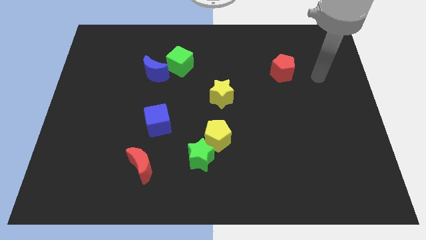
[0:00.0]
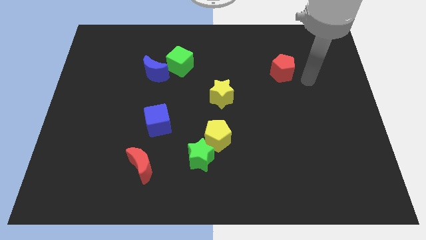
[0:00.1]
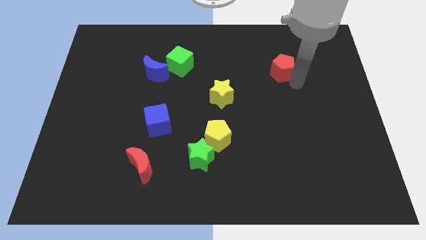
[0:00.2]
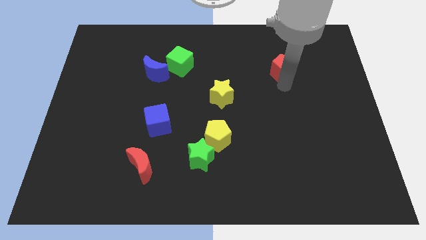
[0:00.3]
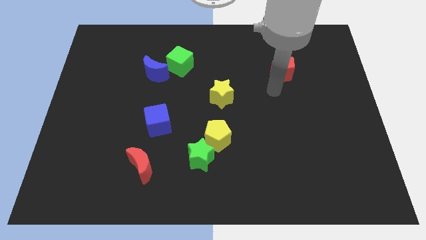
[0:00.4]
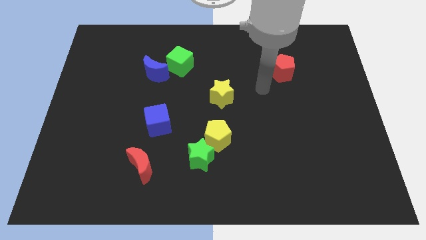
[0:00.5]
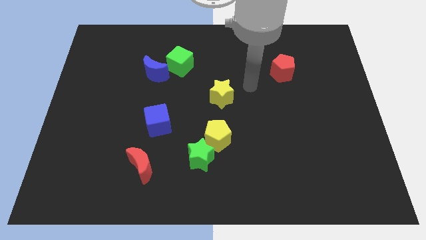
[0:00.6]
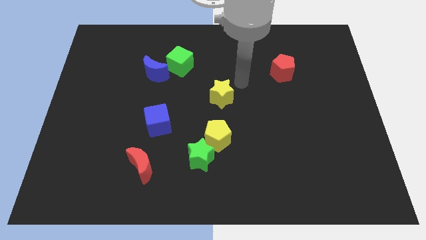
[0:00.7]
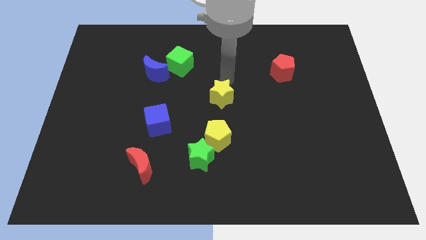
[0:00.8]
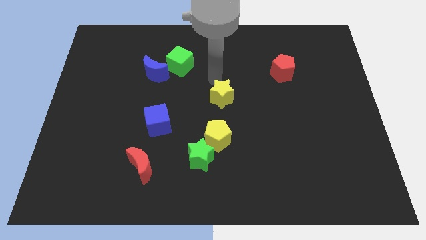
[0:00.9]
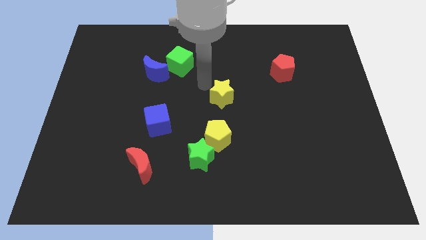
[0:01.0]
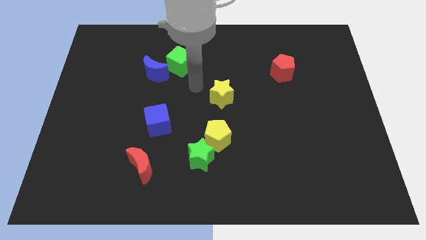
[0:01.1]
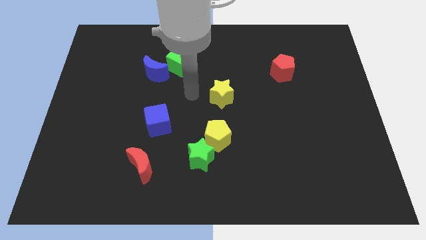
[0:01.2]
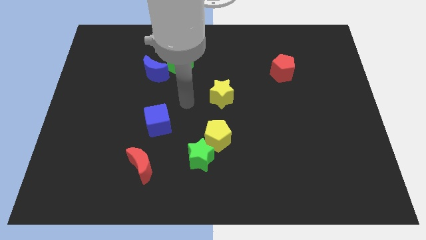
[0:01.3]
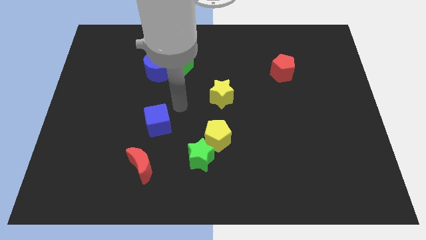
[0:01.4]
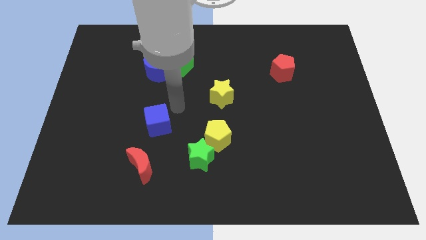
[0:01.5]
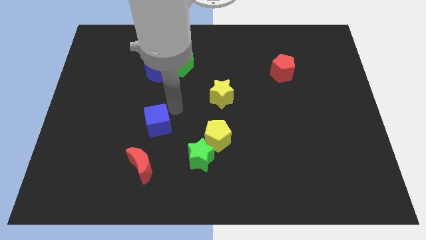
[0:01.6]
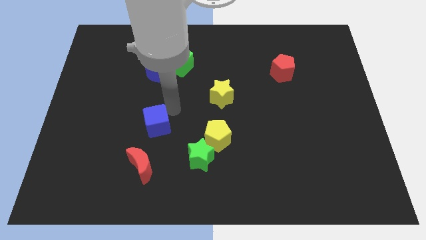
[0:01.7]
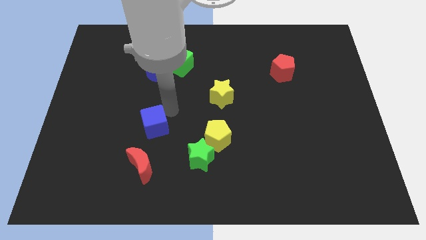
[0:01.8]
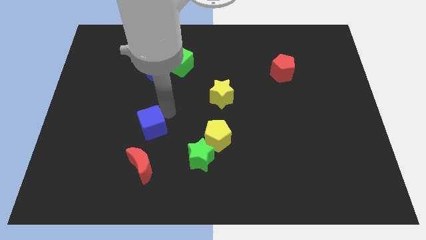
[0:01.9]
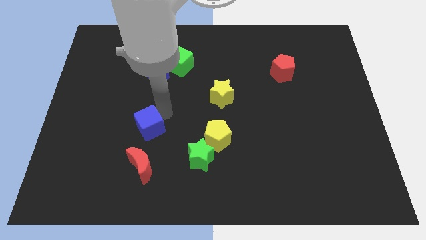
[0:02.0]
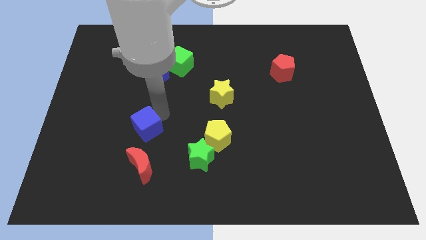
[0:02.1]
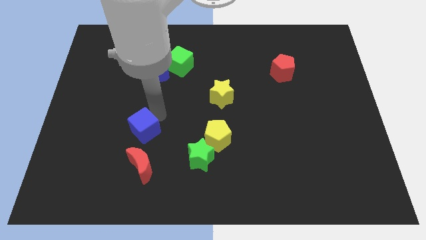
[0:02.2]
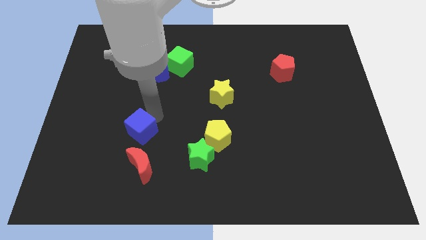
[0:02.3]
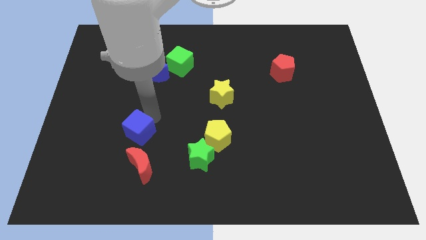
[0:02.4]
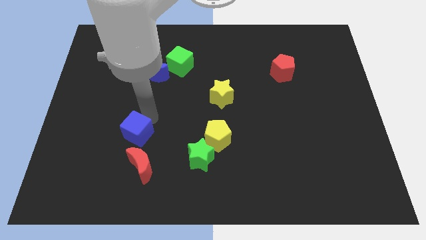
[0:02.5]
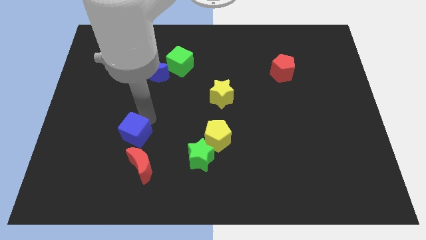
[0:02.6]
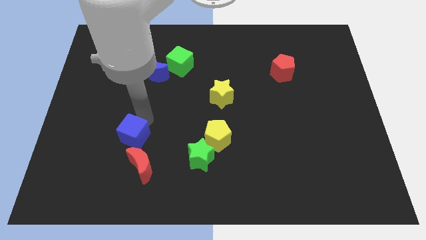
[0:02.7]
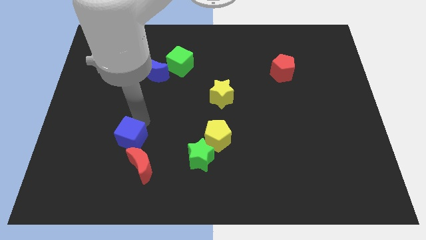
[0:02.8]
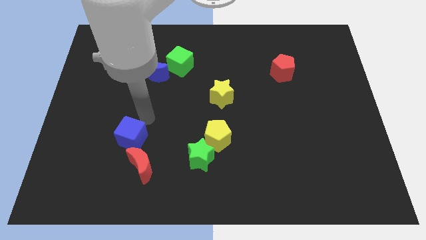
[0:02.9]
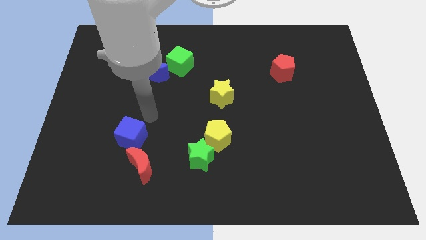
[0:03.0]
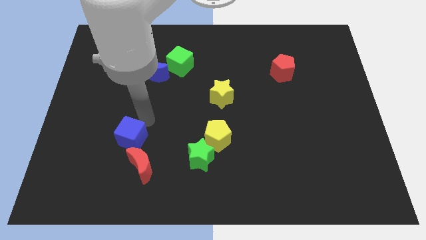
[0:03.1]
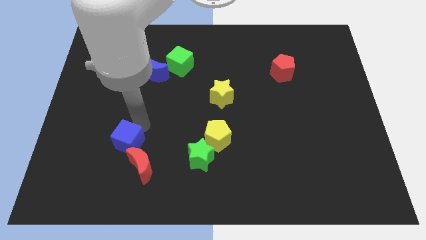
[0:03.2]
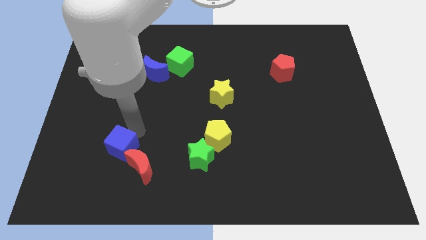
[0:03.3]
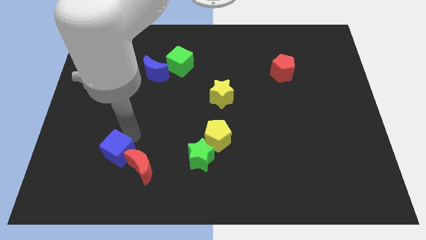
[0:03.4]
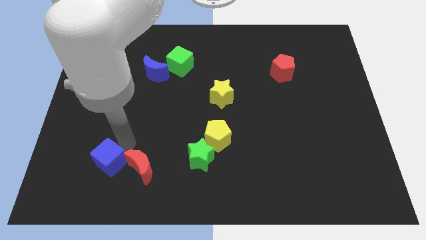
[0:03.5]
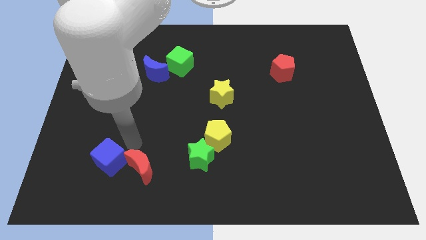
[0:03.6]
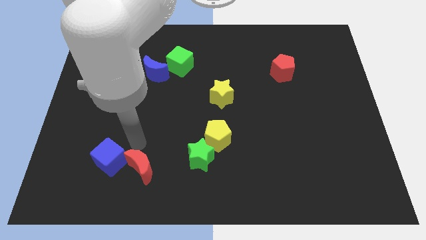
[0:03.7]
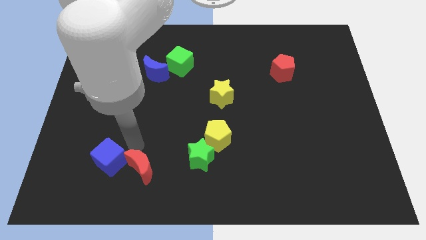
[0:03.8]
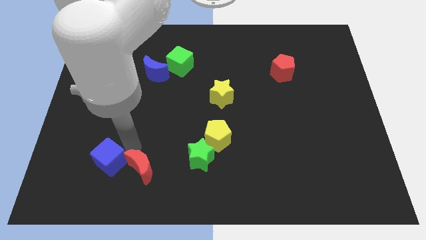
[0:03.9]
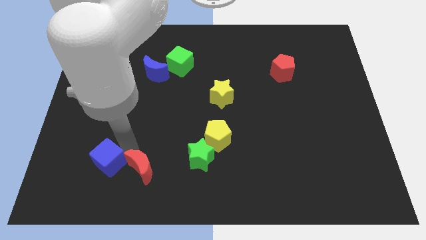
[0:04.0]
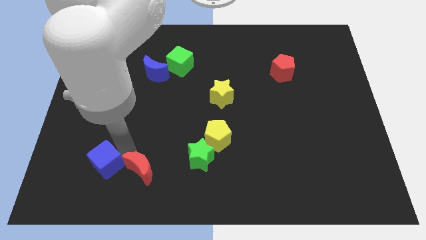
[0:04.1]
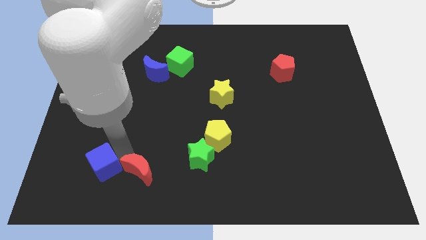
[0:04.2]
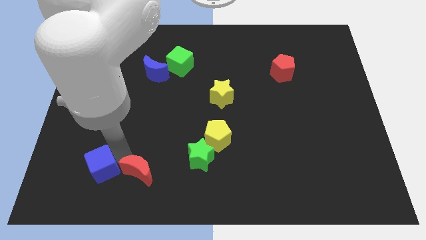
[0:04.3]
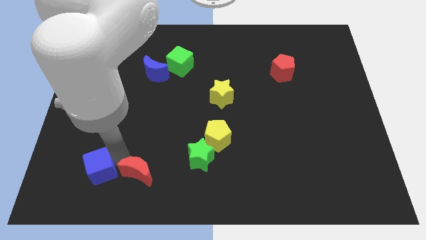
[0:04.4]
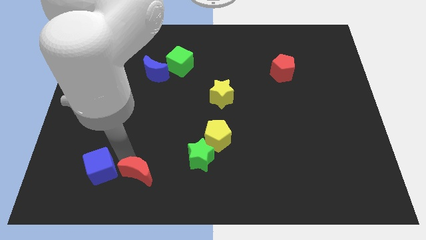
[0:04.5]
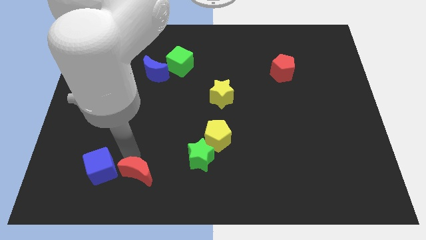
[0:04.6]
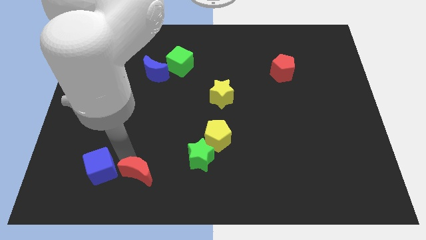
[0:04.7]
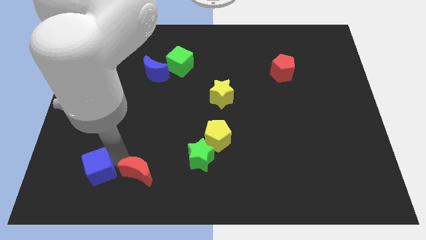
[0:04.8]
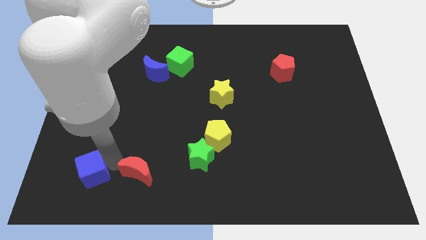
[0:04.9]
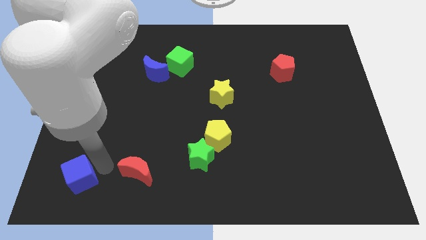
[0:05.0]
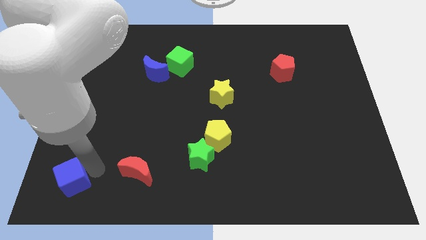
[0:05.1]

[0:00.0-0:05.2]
put the blue cube to the bottom left of the board

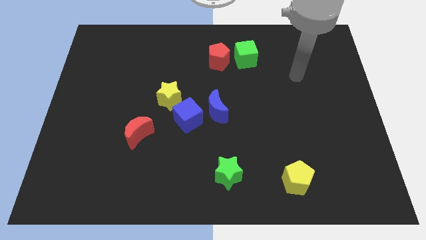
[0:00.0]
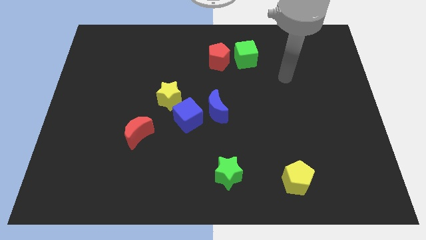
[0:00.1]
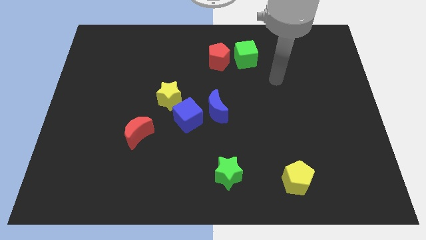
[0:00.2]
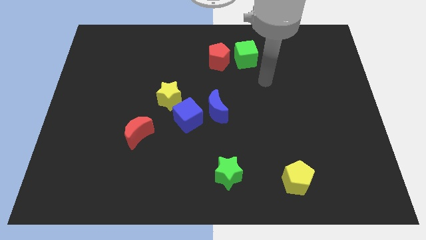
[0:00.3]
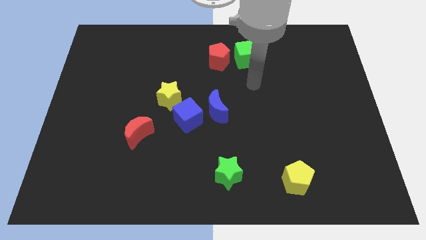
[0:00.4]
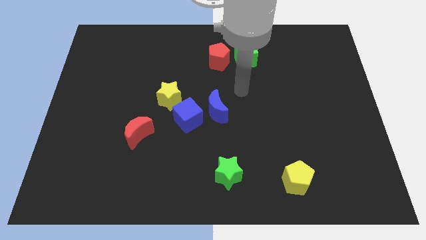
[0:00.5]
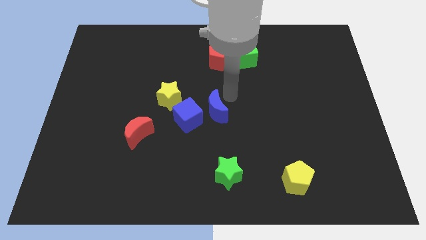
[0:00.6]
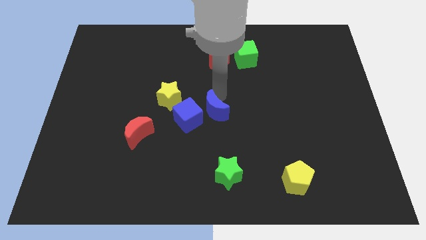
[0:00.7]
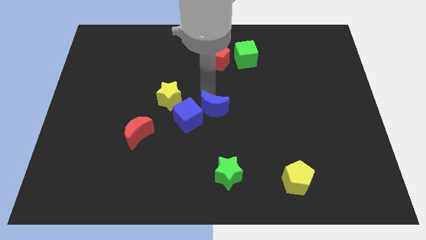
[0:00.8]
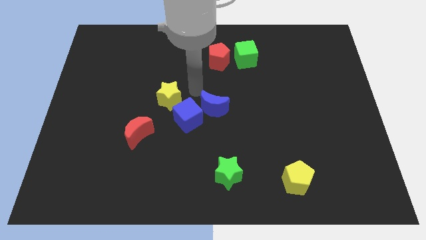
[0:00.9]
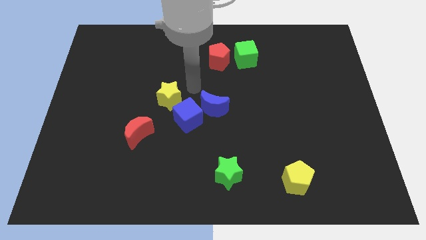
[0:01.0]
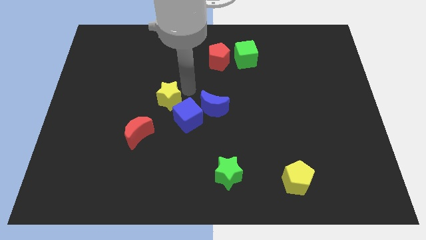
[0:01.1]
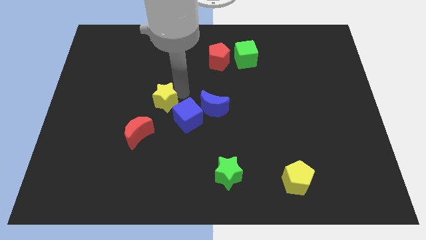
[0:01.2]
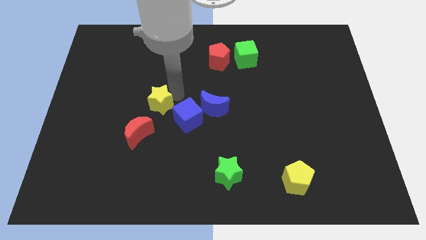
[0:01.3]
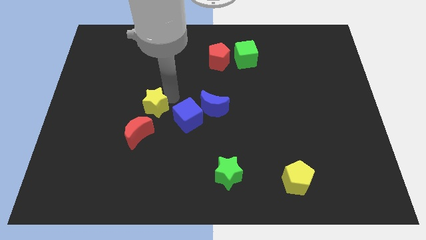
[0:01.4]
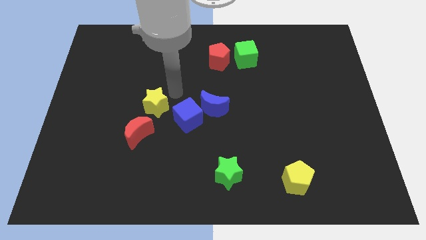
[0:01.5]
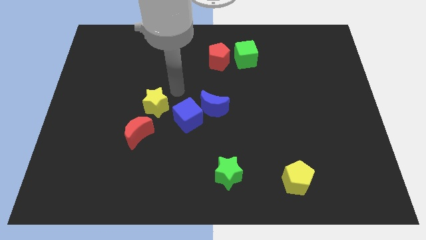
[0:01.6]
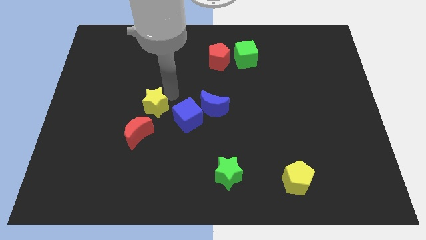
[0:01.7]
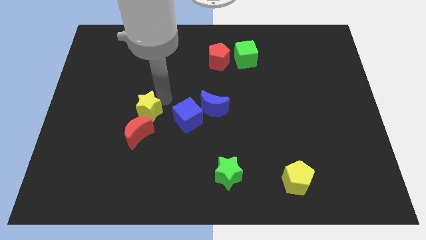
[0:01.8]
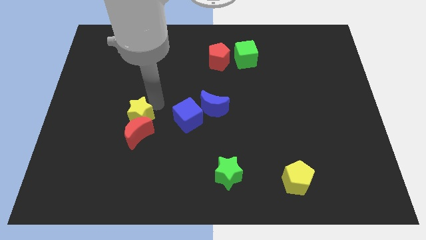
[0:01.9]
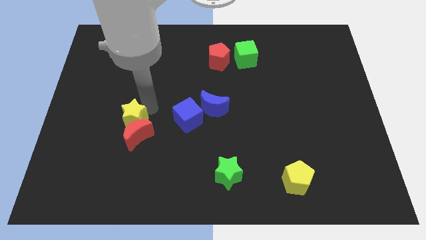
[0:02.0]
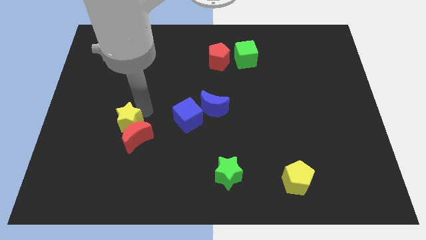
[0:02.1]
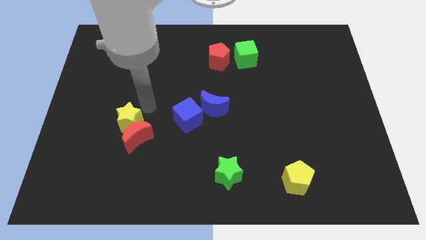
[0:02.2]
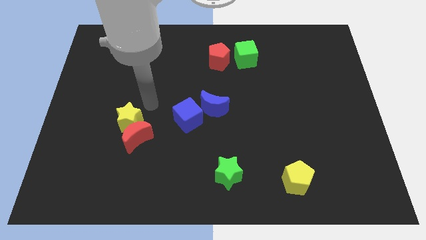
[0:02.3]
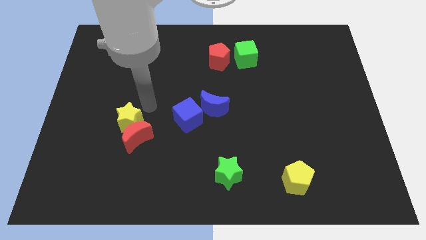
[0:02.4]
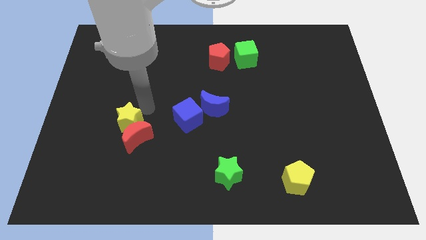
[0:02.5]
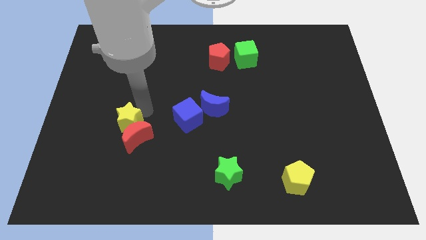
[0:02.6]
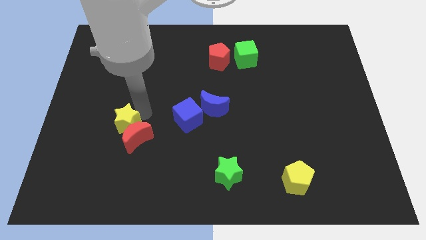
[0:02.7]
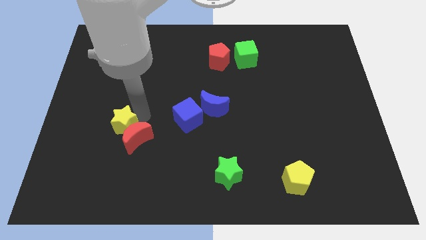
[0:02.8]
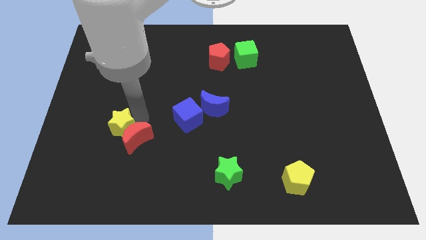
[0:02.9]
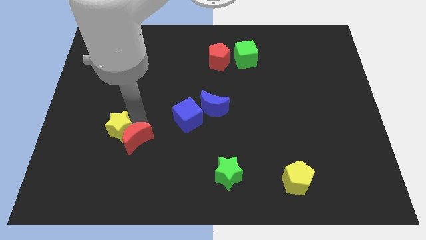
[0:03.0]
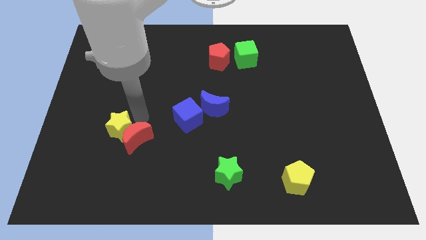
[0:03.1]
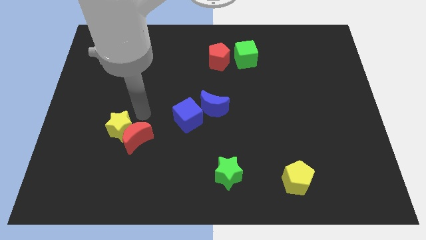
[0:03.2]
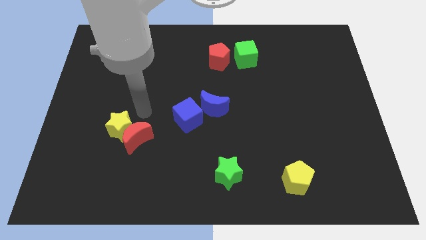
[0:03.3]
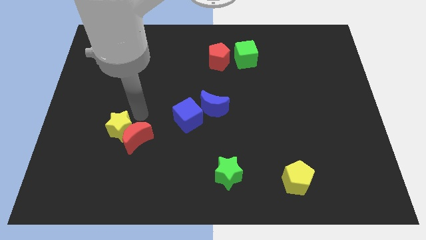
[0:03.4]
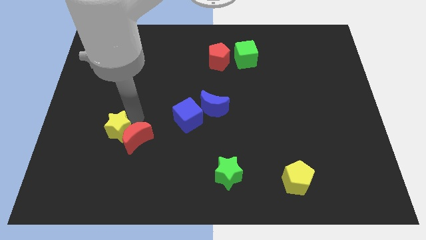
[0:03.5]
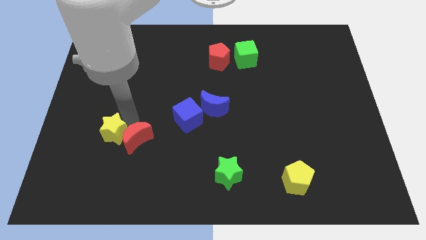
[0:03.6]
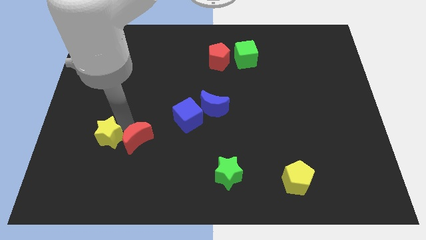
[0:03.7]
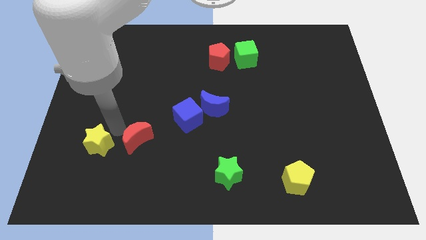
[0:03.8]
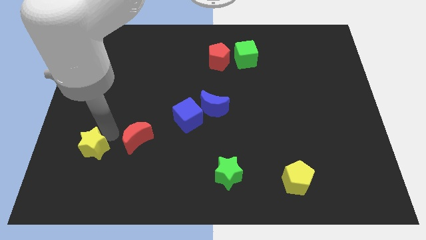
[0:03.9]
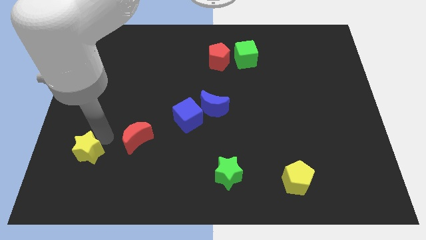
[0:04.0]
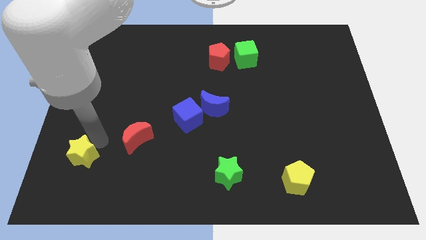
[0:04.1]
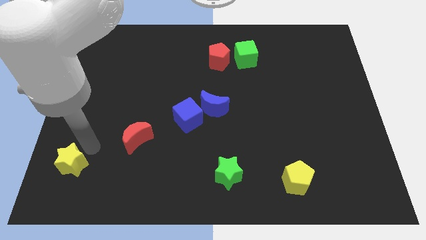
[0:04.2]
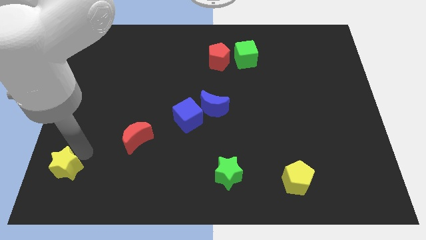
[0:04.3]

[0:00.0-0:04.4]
move the yellow star to the bottom left
